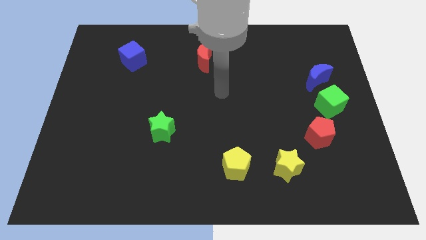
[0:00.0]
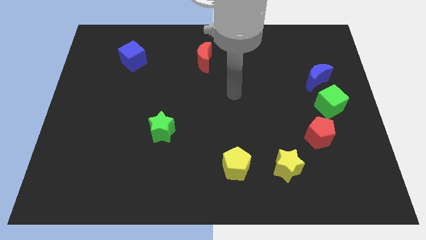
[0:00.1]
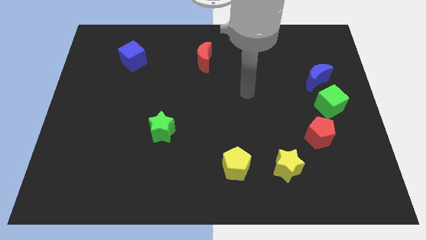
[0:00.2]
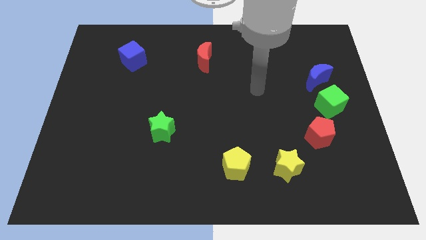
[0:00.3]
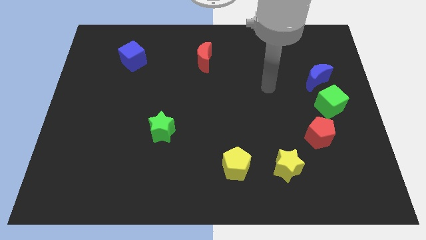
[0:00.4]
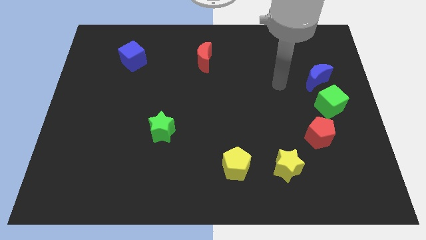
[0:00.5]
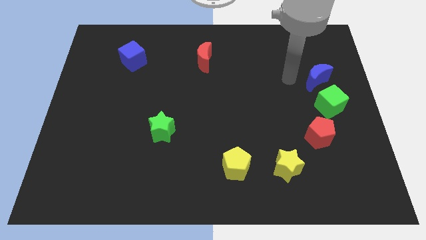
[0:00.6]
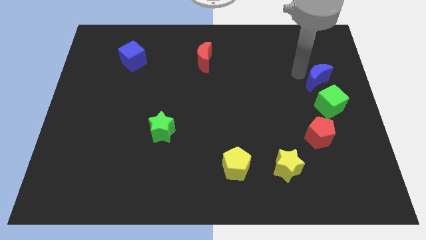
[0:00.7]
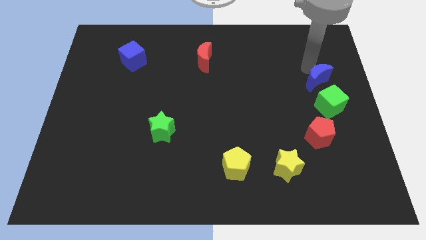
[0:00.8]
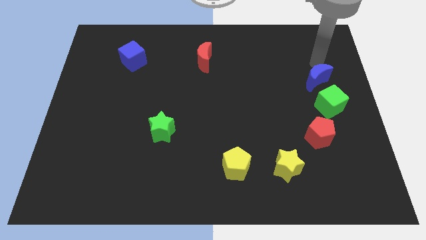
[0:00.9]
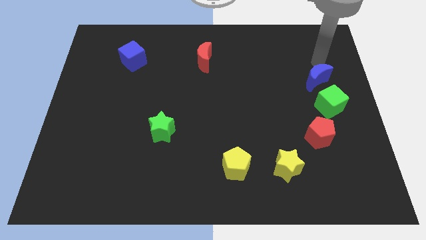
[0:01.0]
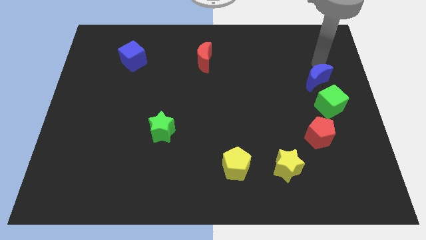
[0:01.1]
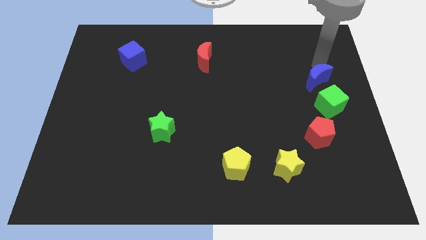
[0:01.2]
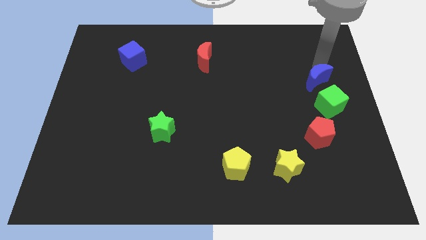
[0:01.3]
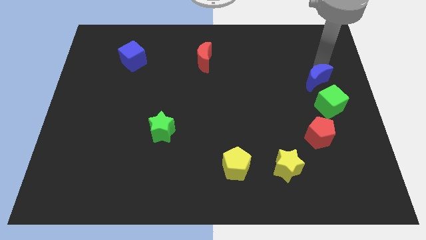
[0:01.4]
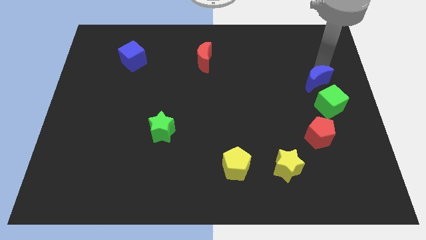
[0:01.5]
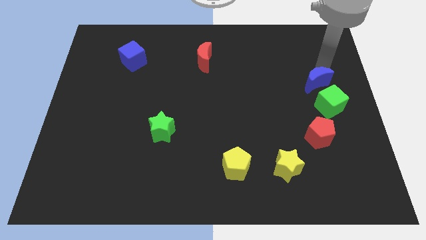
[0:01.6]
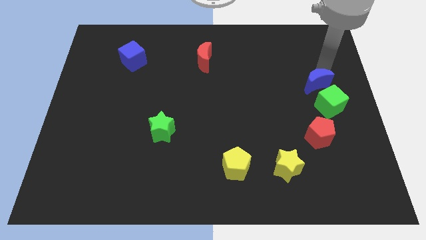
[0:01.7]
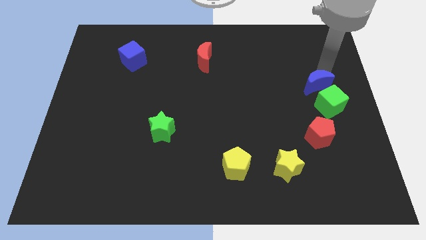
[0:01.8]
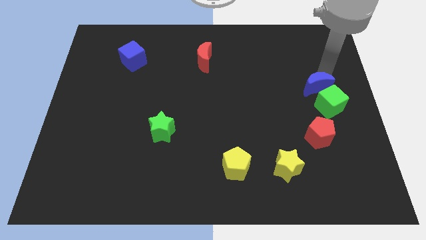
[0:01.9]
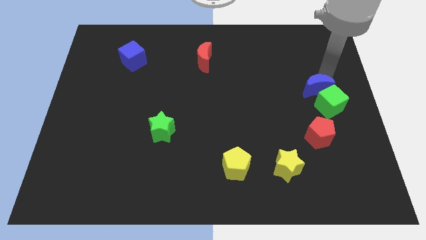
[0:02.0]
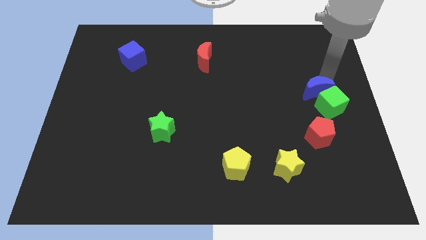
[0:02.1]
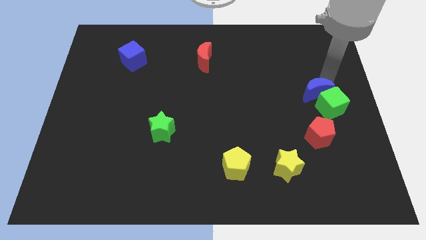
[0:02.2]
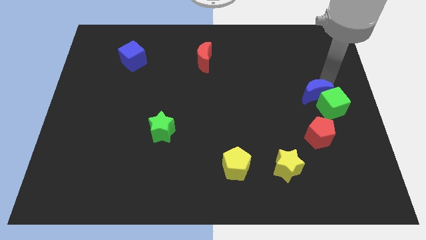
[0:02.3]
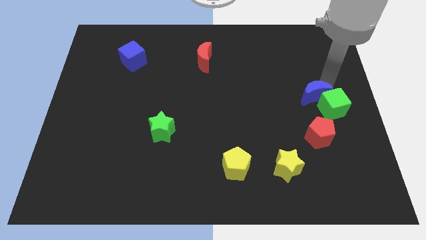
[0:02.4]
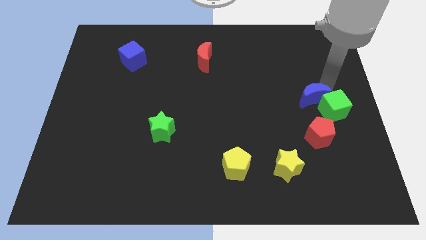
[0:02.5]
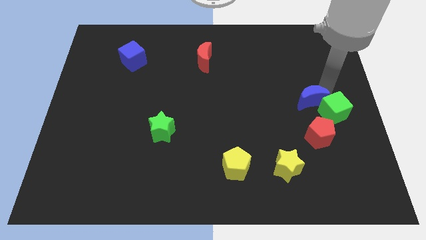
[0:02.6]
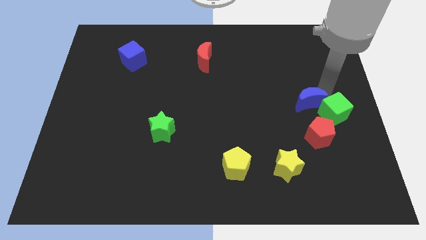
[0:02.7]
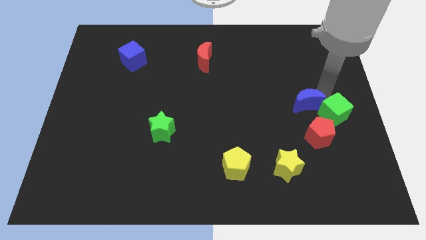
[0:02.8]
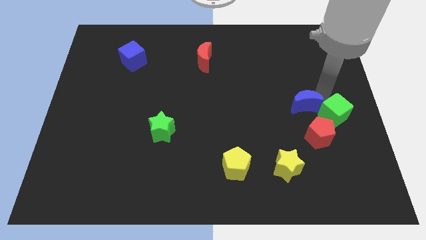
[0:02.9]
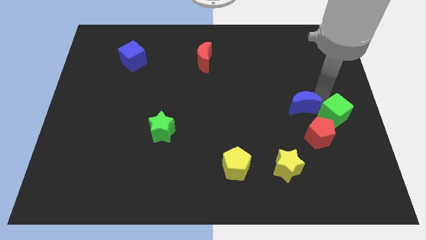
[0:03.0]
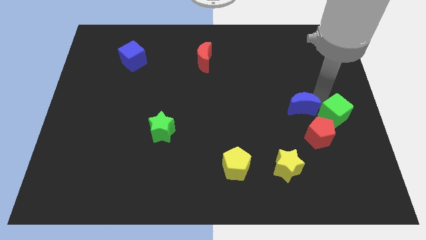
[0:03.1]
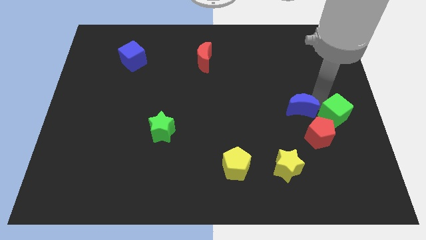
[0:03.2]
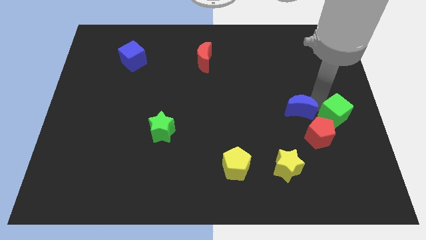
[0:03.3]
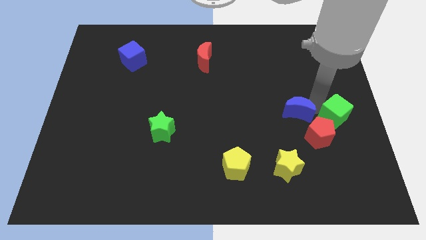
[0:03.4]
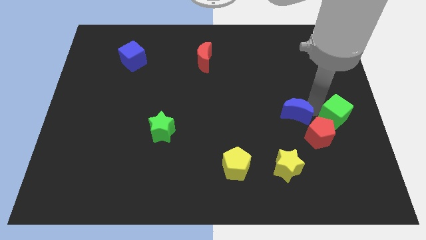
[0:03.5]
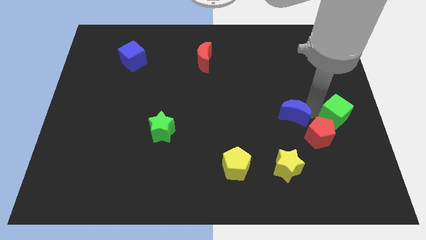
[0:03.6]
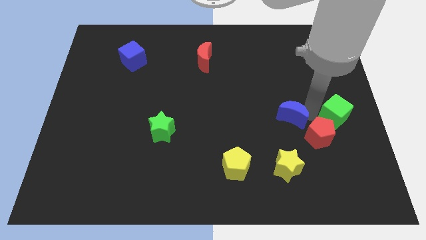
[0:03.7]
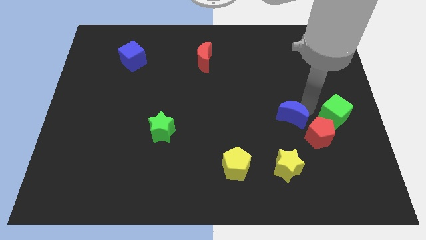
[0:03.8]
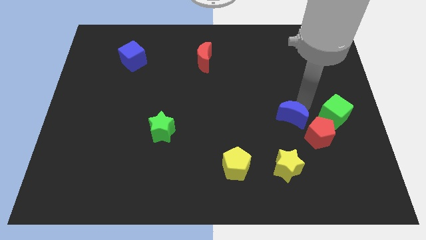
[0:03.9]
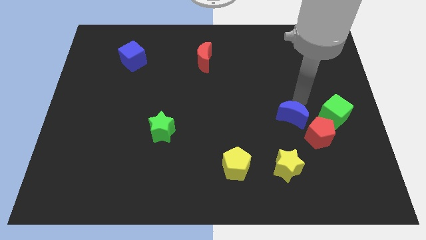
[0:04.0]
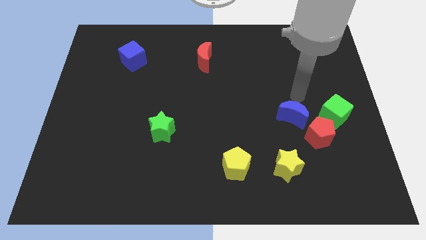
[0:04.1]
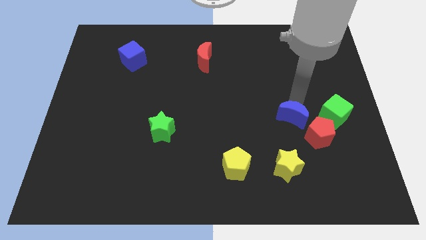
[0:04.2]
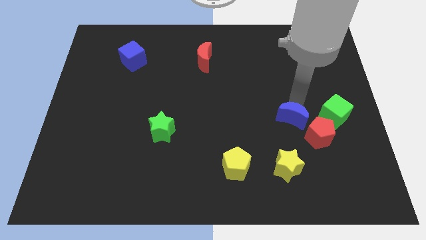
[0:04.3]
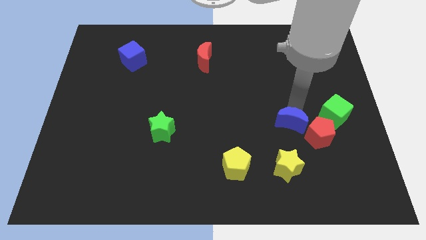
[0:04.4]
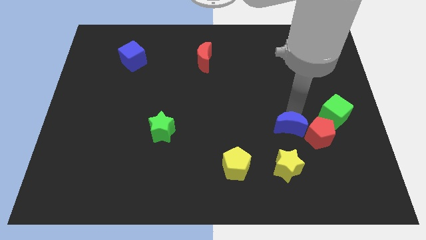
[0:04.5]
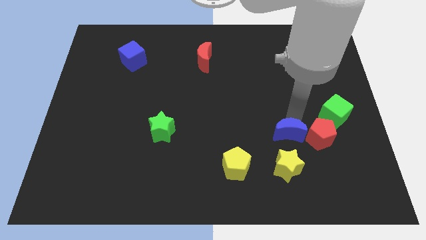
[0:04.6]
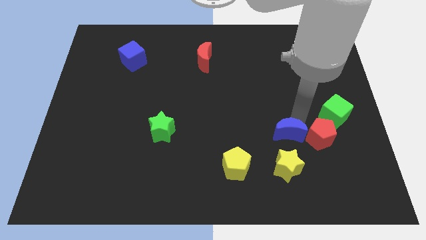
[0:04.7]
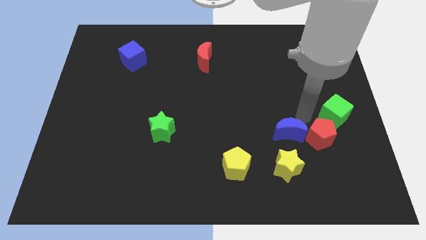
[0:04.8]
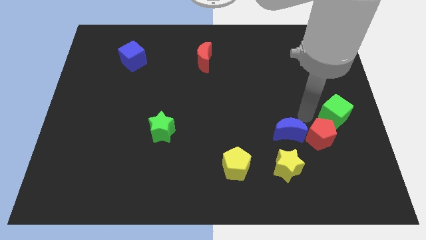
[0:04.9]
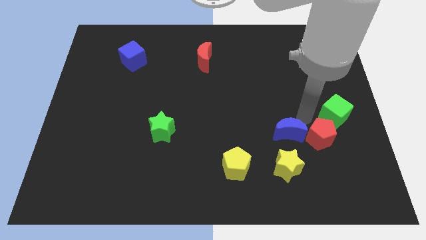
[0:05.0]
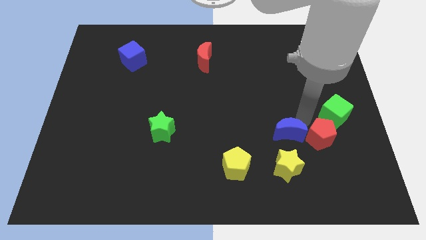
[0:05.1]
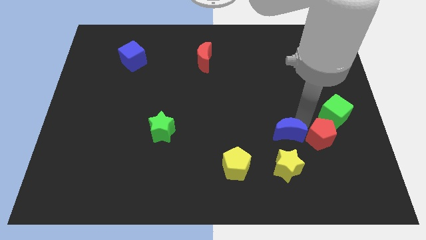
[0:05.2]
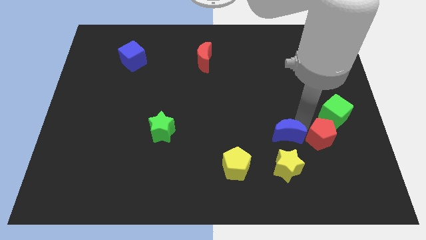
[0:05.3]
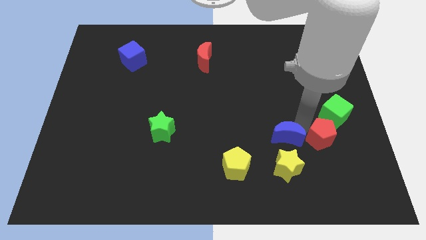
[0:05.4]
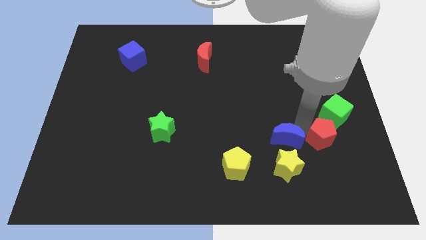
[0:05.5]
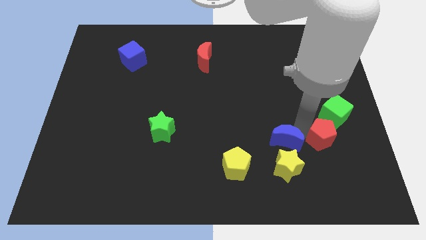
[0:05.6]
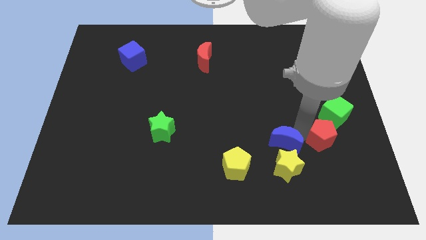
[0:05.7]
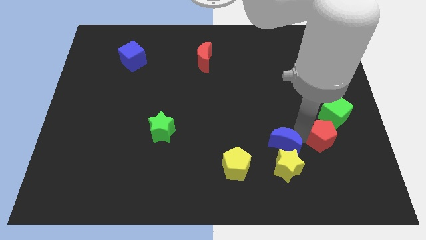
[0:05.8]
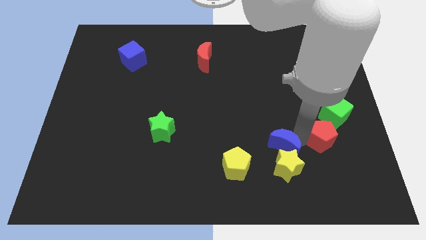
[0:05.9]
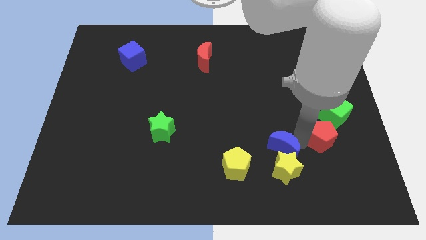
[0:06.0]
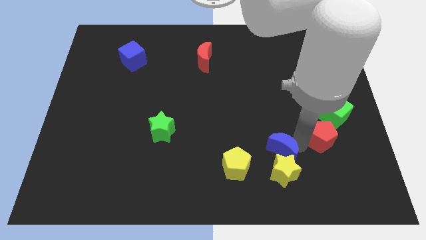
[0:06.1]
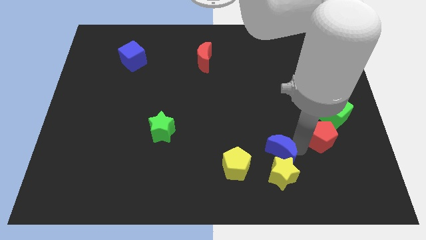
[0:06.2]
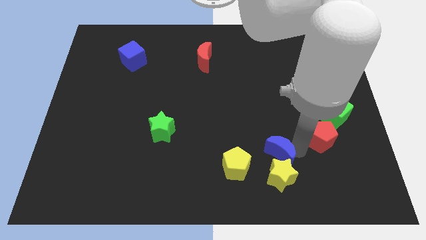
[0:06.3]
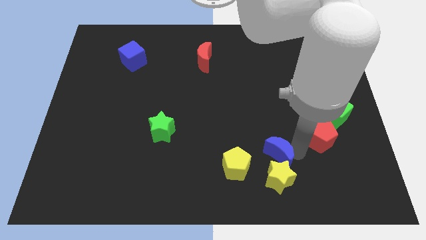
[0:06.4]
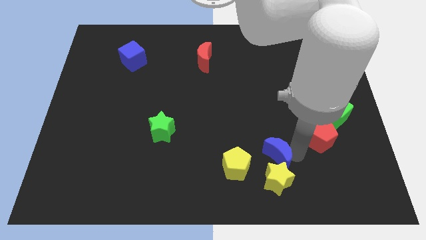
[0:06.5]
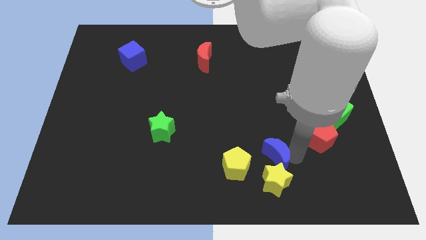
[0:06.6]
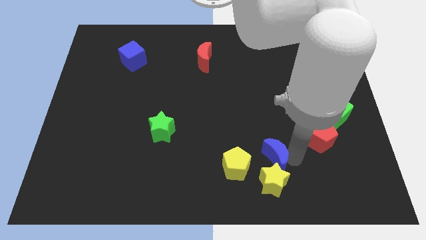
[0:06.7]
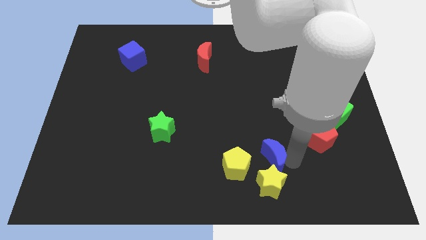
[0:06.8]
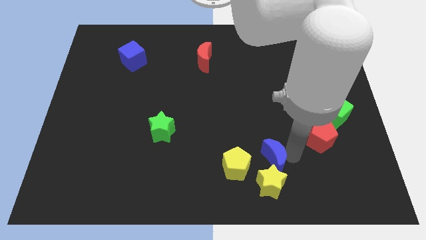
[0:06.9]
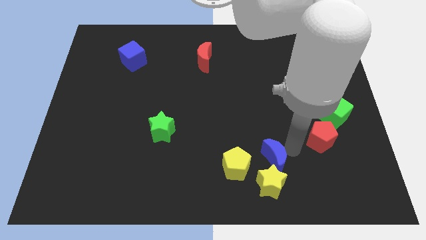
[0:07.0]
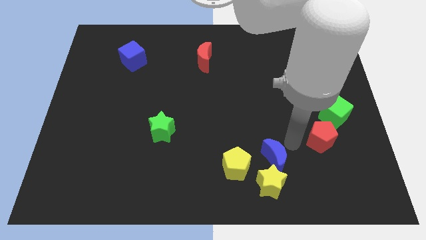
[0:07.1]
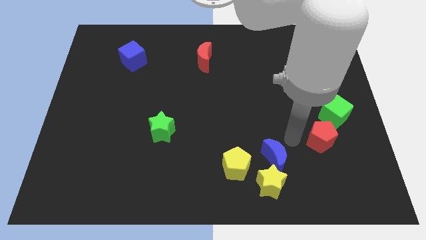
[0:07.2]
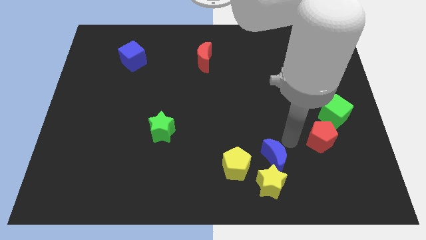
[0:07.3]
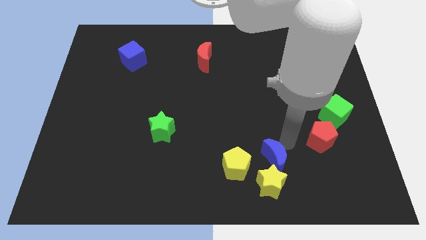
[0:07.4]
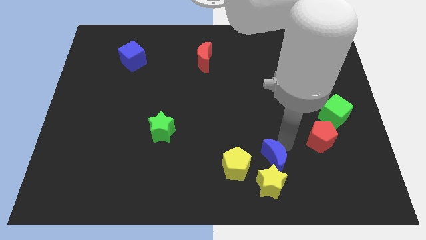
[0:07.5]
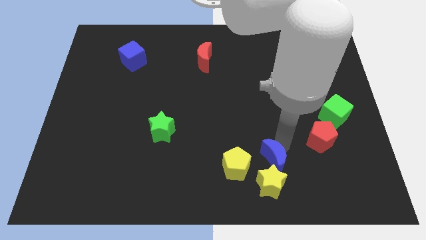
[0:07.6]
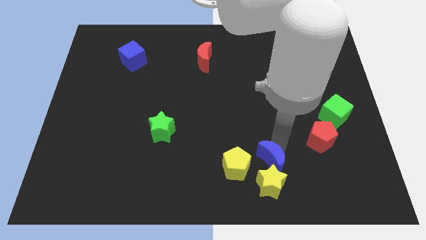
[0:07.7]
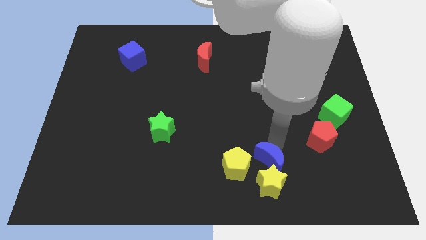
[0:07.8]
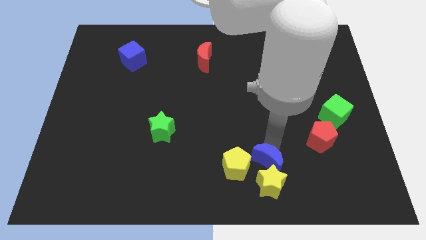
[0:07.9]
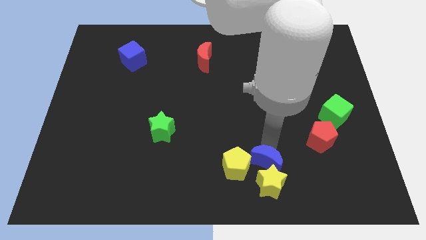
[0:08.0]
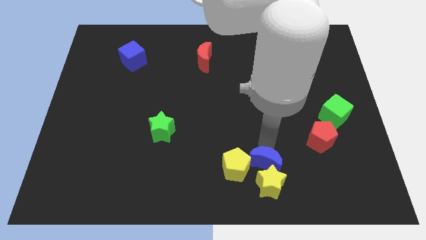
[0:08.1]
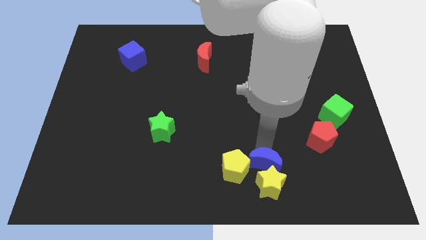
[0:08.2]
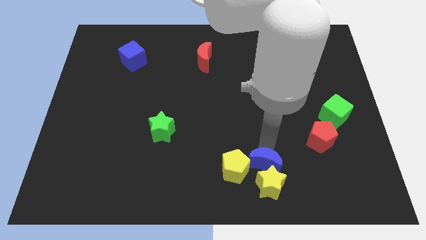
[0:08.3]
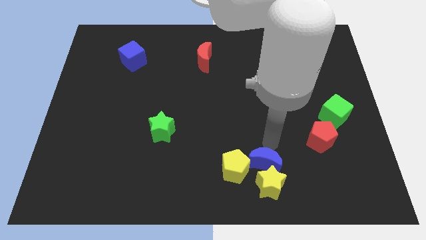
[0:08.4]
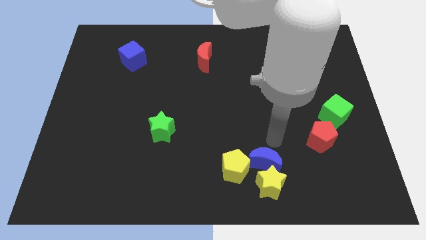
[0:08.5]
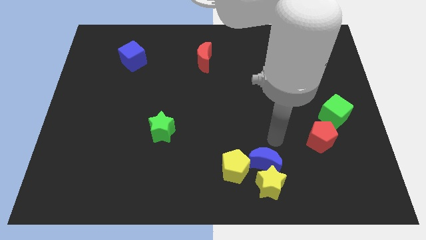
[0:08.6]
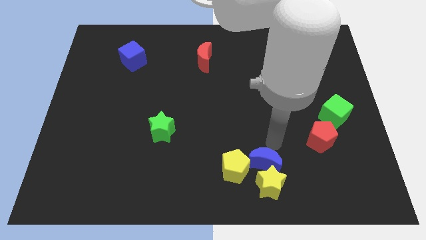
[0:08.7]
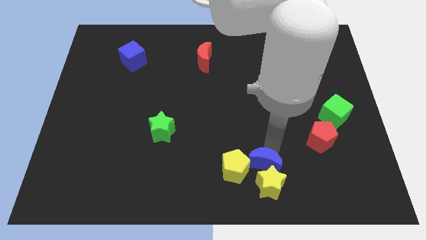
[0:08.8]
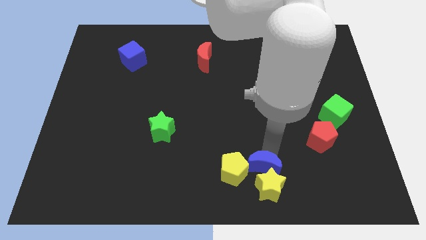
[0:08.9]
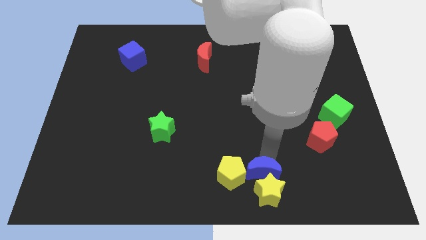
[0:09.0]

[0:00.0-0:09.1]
slide the blue moon to the bottom
